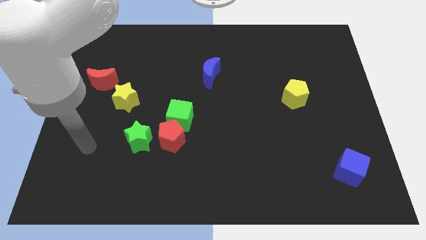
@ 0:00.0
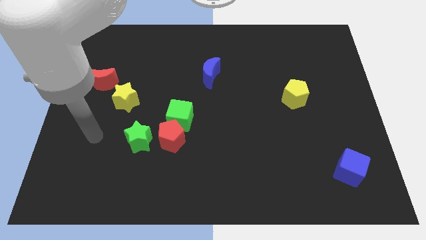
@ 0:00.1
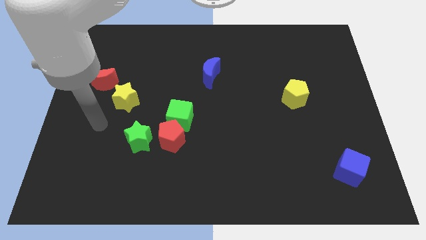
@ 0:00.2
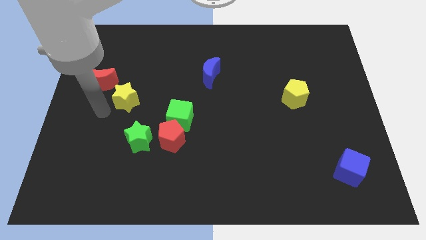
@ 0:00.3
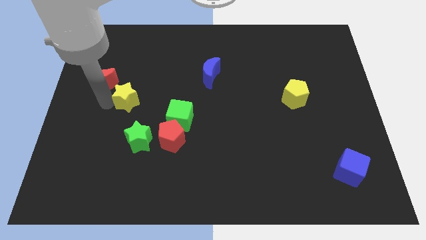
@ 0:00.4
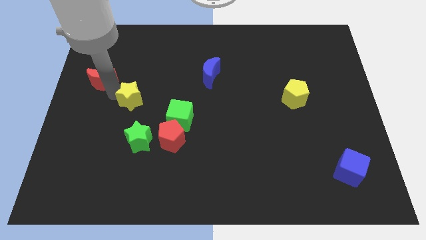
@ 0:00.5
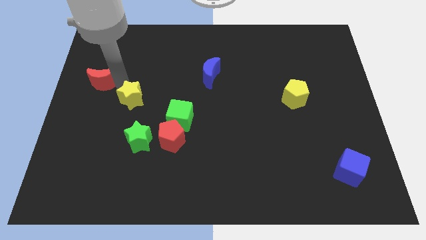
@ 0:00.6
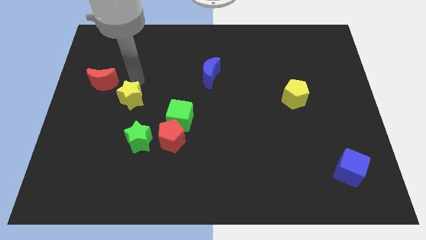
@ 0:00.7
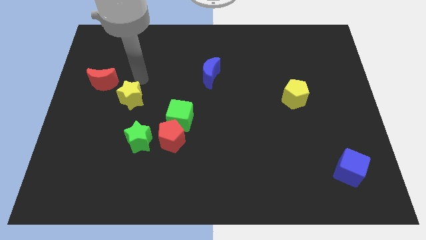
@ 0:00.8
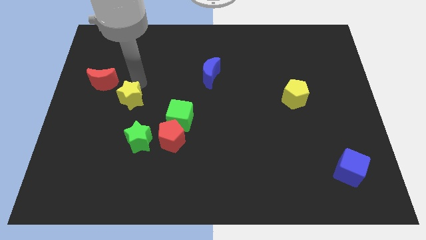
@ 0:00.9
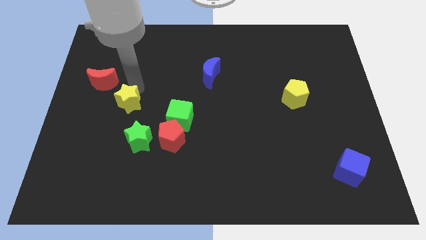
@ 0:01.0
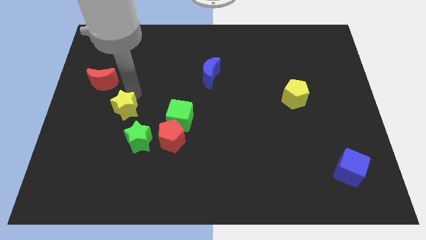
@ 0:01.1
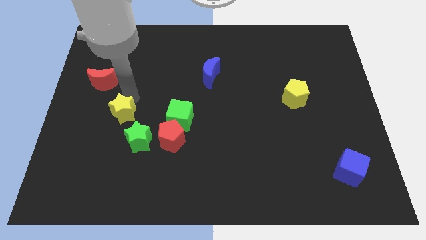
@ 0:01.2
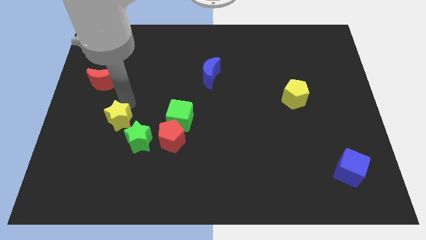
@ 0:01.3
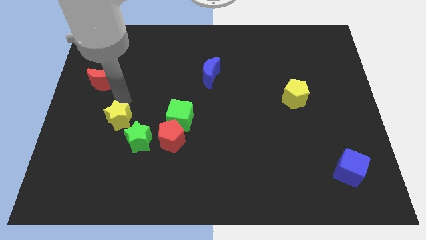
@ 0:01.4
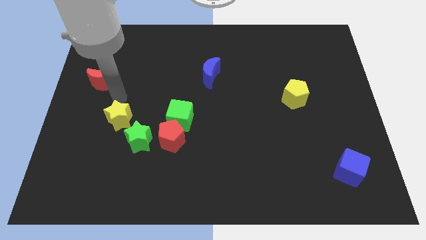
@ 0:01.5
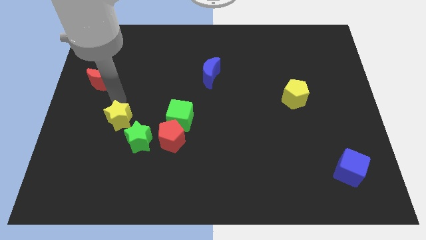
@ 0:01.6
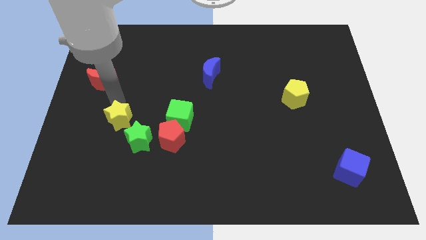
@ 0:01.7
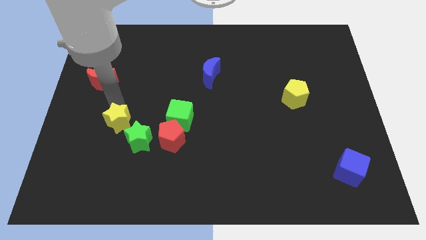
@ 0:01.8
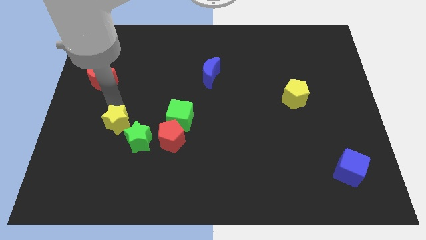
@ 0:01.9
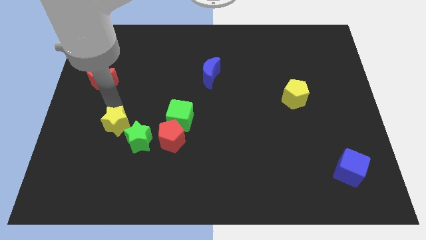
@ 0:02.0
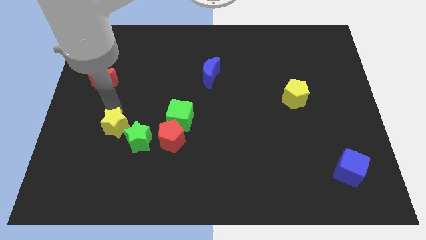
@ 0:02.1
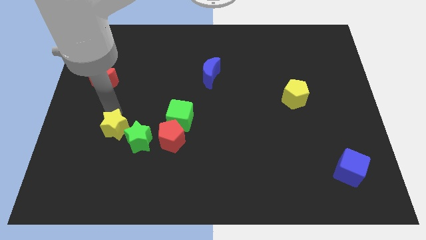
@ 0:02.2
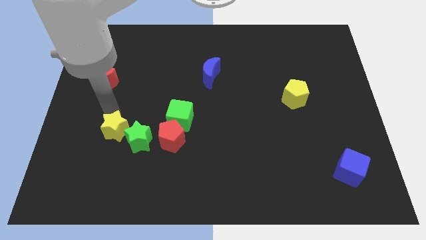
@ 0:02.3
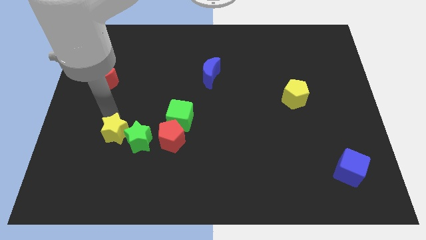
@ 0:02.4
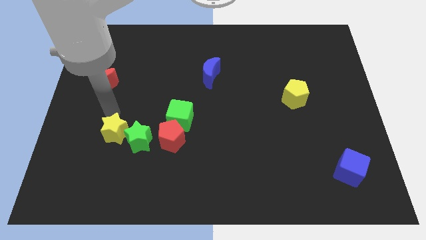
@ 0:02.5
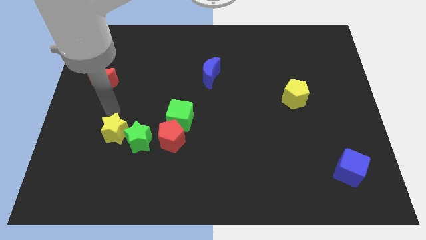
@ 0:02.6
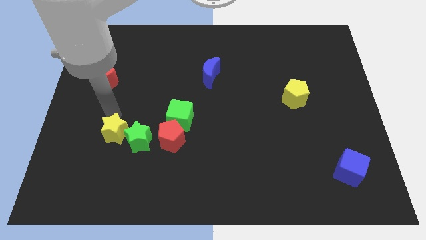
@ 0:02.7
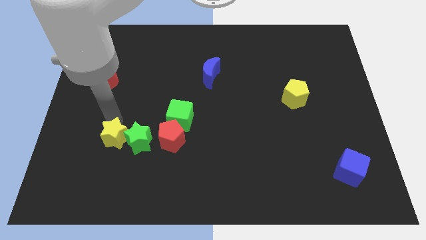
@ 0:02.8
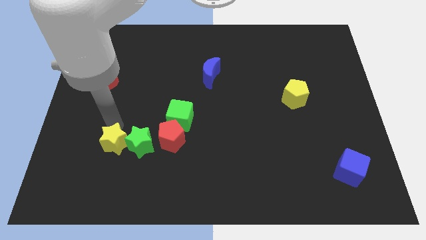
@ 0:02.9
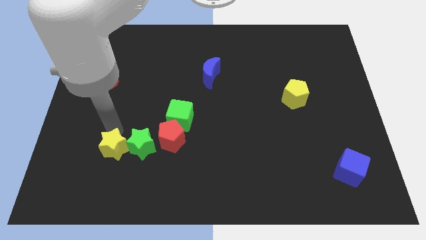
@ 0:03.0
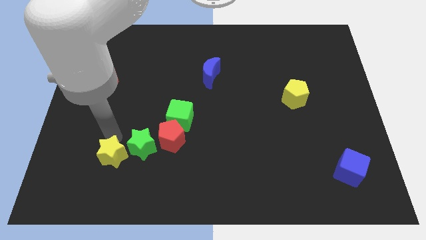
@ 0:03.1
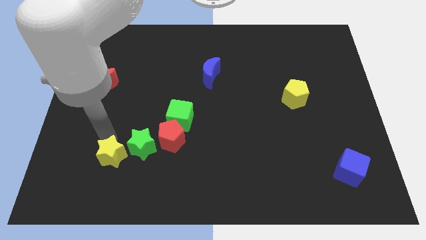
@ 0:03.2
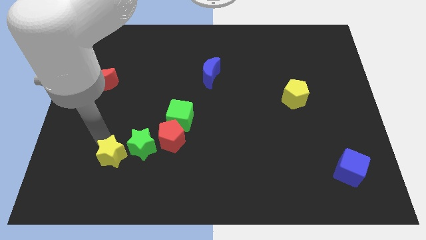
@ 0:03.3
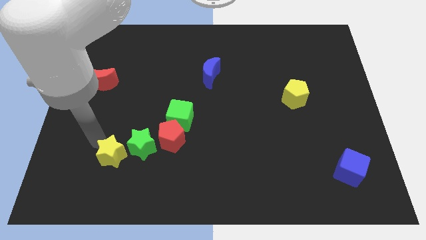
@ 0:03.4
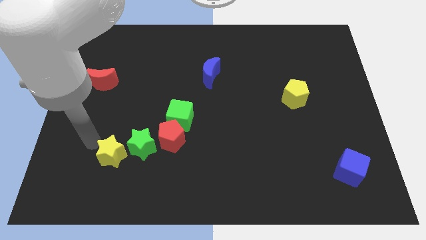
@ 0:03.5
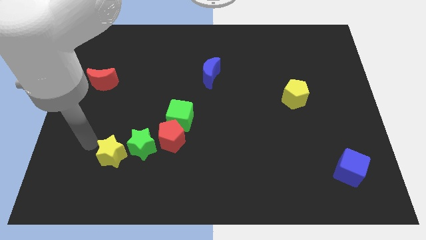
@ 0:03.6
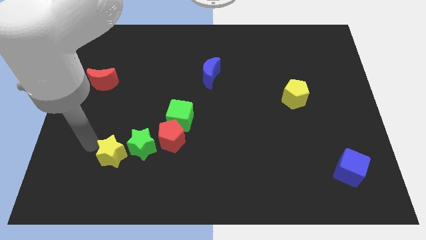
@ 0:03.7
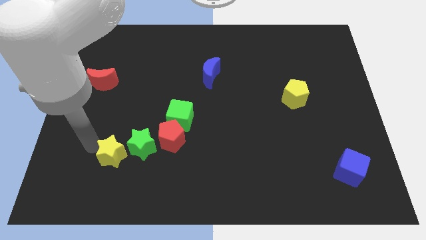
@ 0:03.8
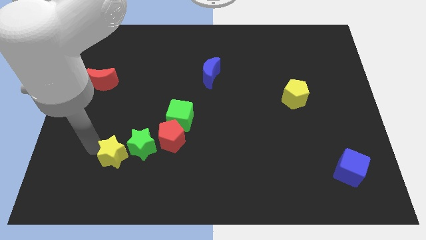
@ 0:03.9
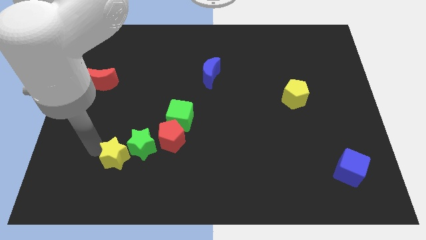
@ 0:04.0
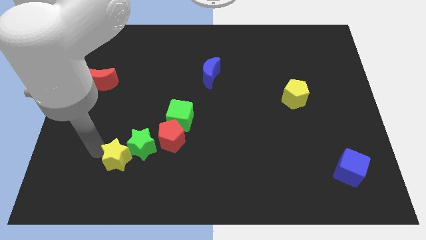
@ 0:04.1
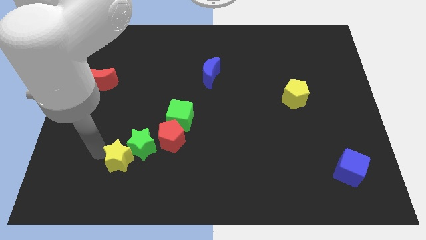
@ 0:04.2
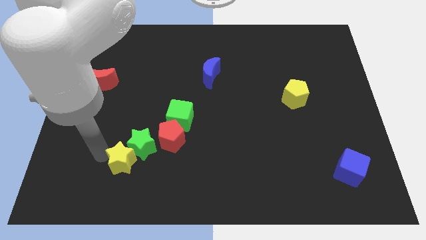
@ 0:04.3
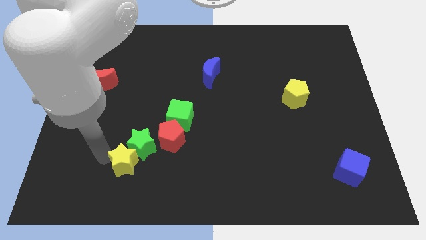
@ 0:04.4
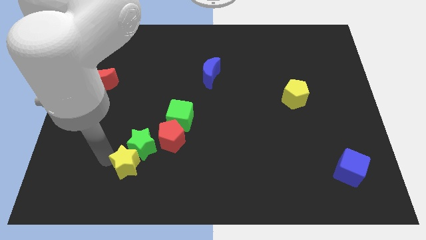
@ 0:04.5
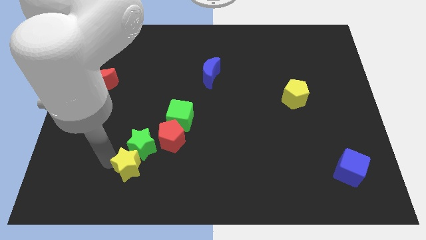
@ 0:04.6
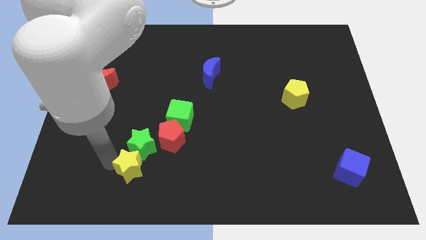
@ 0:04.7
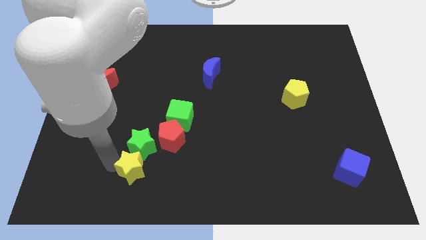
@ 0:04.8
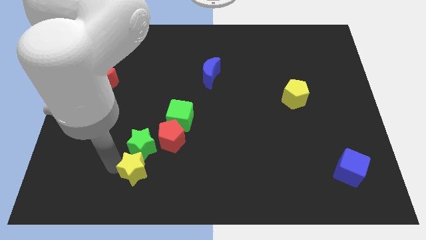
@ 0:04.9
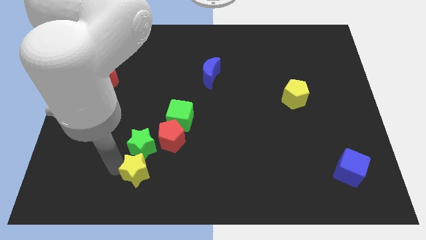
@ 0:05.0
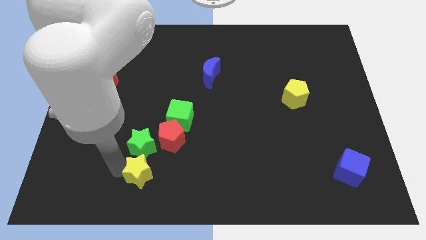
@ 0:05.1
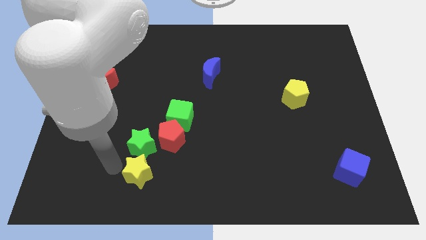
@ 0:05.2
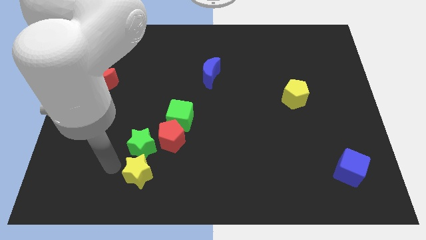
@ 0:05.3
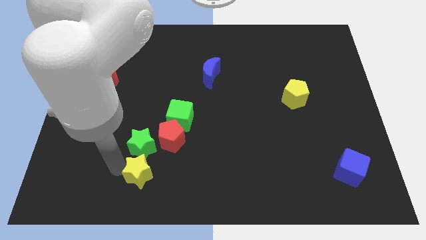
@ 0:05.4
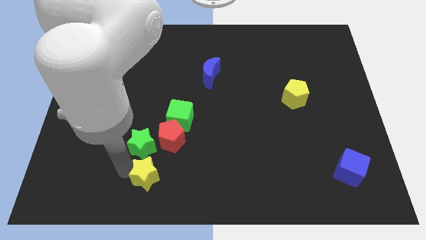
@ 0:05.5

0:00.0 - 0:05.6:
push the yellow star to the bottom side of the red pentagon

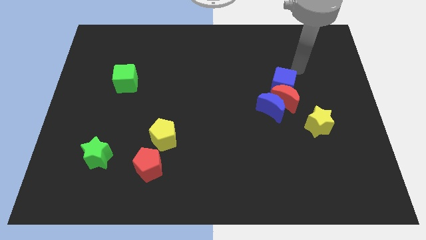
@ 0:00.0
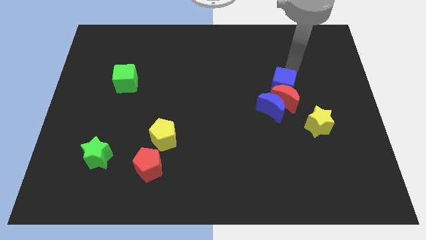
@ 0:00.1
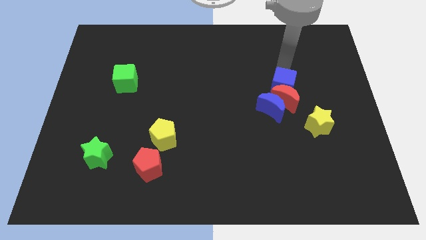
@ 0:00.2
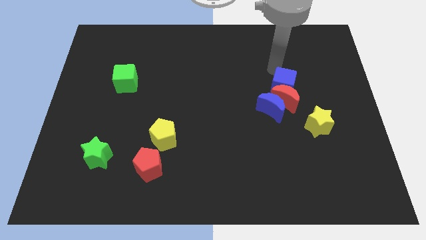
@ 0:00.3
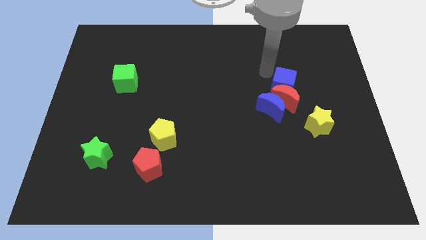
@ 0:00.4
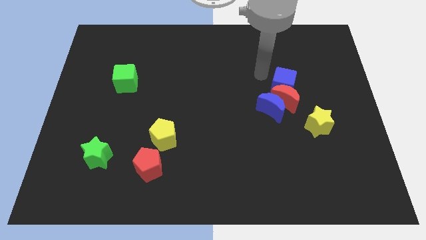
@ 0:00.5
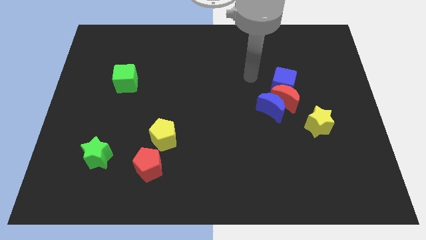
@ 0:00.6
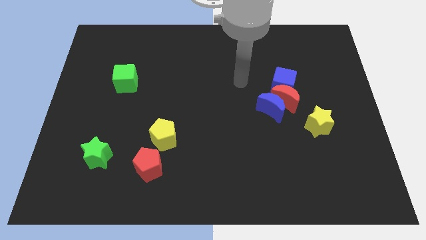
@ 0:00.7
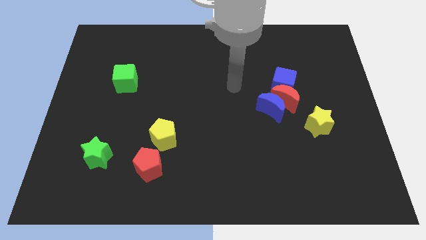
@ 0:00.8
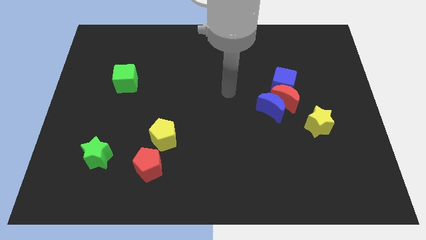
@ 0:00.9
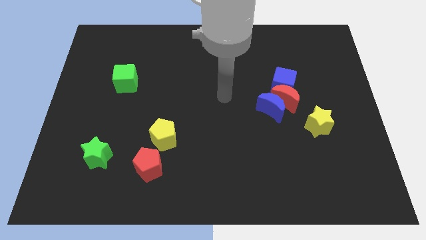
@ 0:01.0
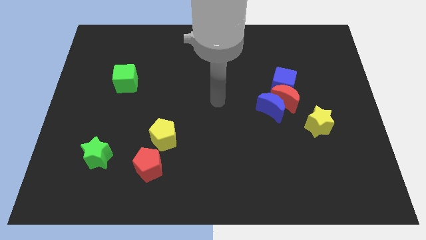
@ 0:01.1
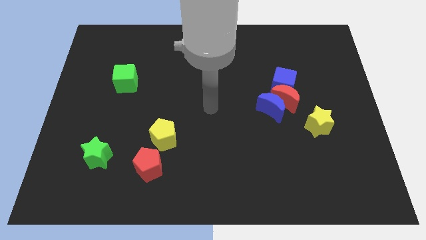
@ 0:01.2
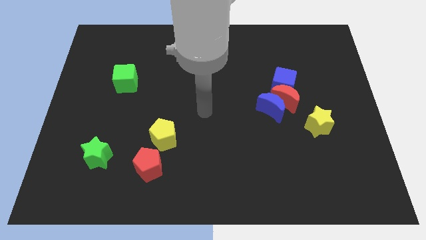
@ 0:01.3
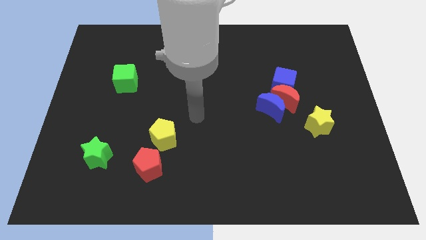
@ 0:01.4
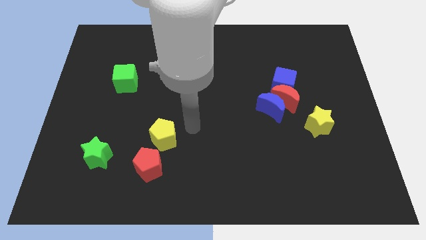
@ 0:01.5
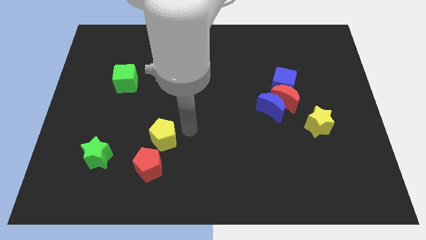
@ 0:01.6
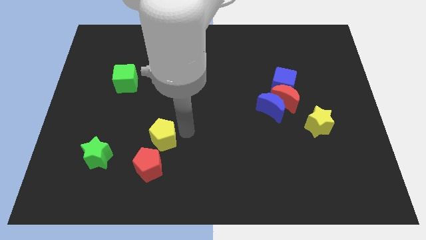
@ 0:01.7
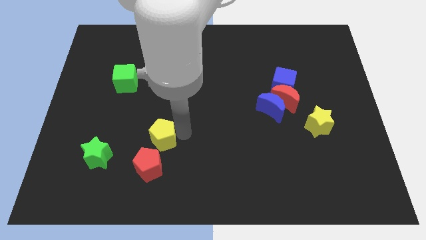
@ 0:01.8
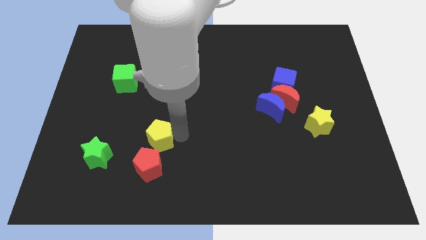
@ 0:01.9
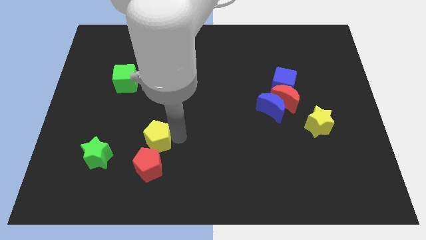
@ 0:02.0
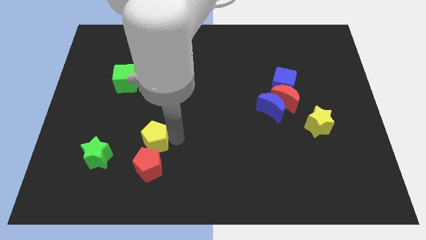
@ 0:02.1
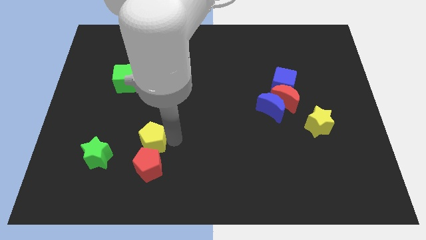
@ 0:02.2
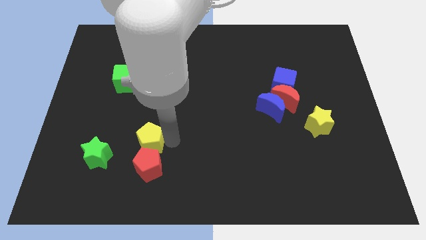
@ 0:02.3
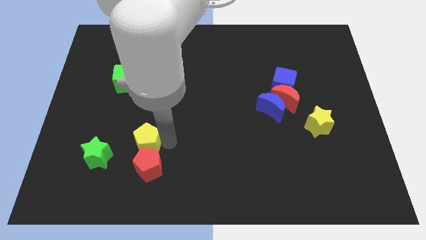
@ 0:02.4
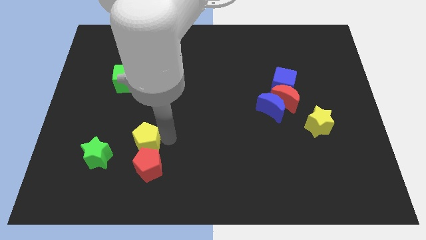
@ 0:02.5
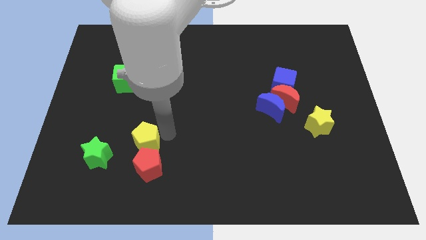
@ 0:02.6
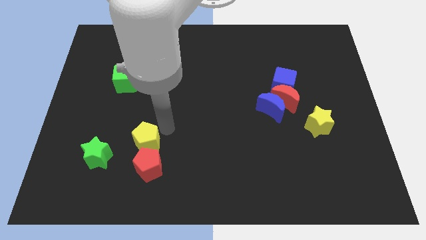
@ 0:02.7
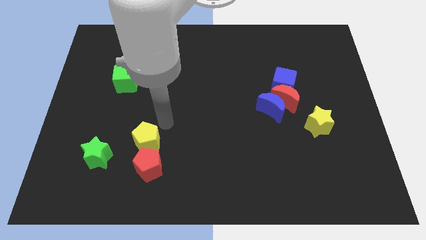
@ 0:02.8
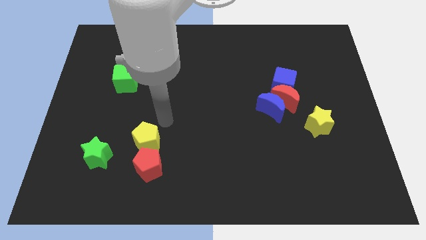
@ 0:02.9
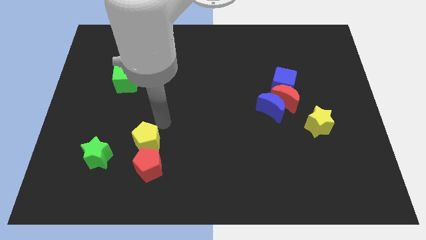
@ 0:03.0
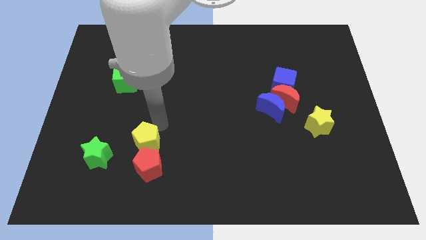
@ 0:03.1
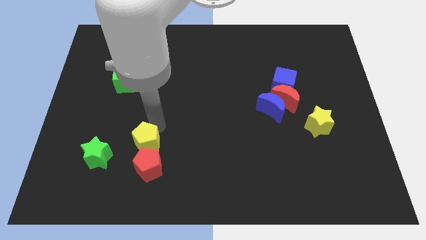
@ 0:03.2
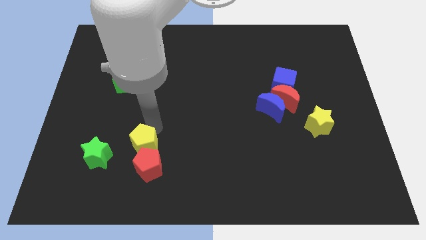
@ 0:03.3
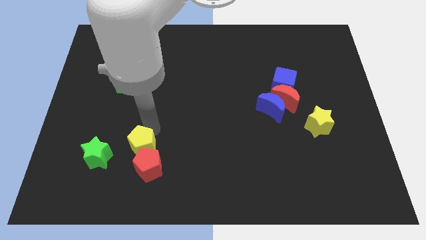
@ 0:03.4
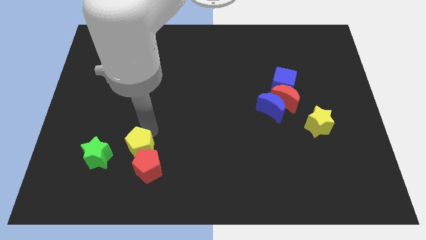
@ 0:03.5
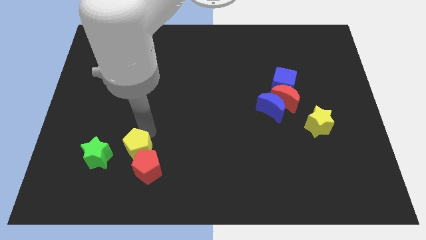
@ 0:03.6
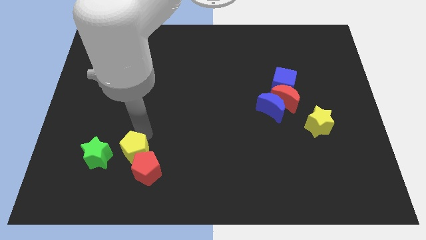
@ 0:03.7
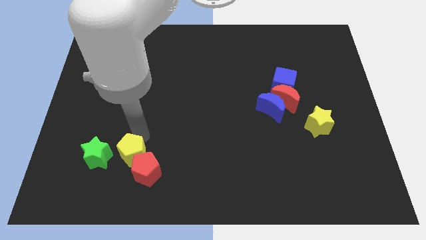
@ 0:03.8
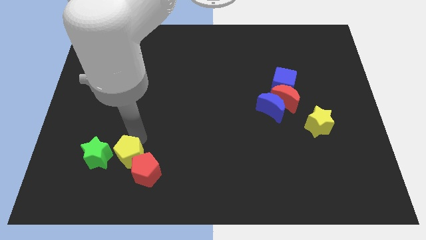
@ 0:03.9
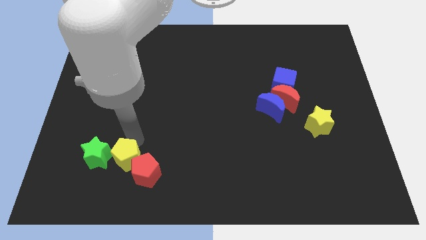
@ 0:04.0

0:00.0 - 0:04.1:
slide the yellow pentagon to the bottom right side of the green star
